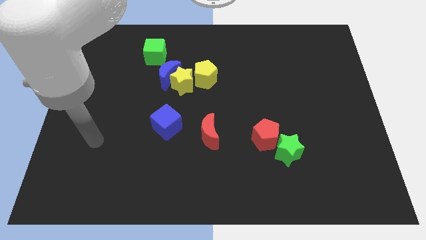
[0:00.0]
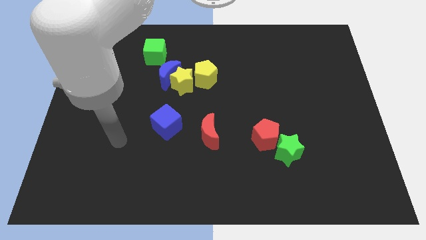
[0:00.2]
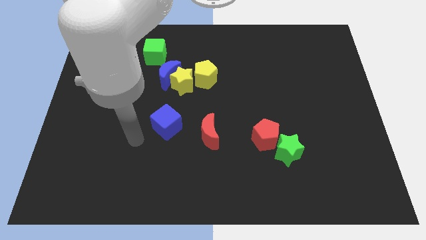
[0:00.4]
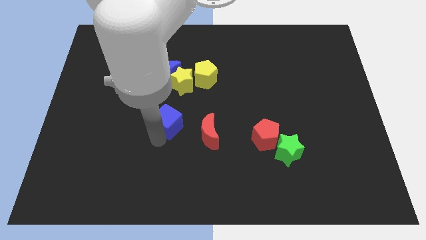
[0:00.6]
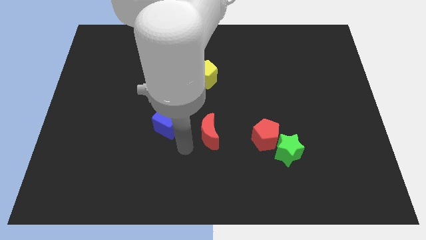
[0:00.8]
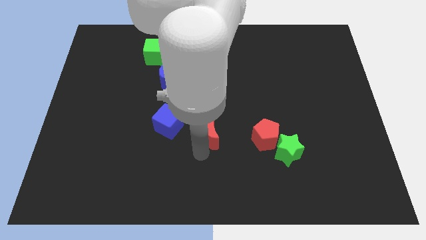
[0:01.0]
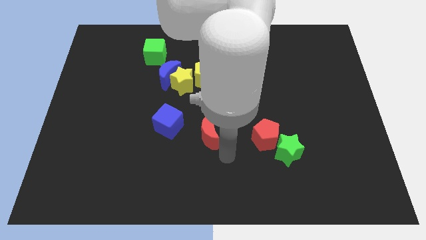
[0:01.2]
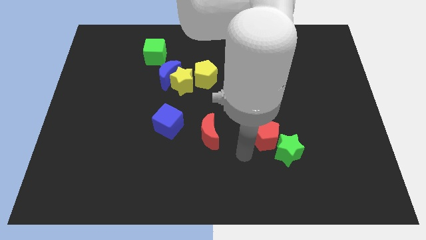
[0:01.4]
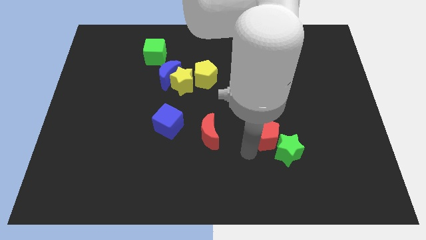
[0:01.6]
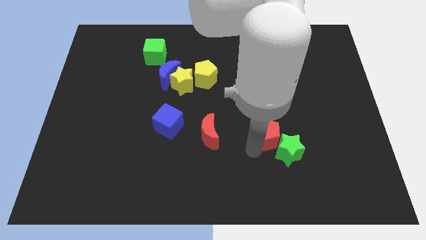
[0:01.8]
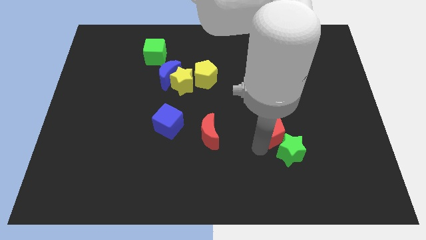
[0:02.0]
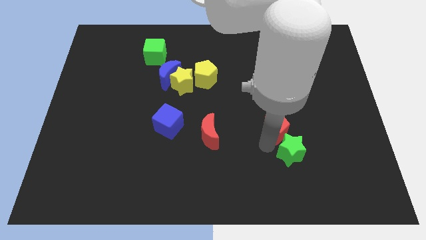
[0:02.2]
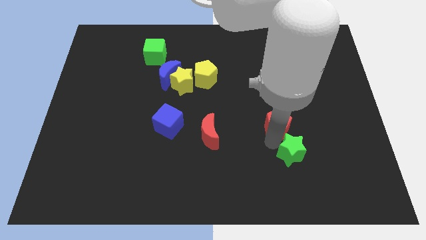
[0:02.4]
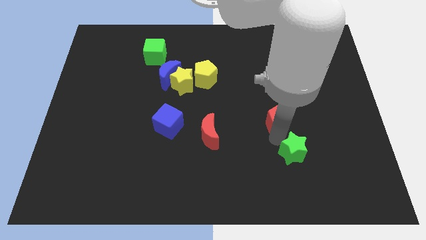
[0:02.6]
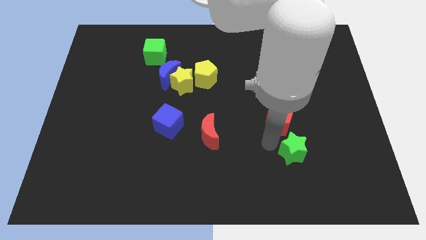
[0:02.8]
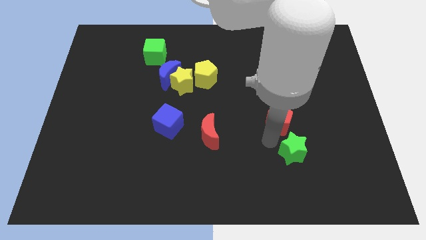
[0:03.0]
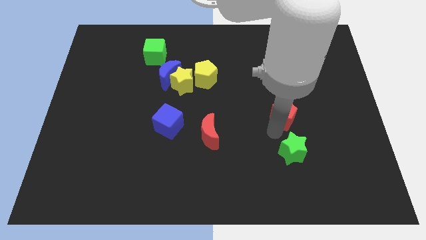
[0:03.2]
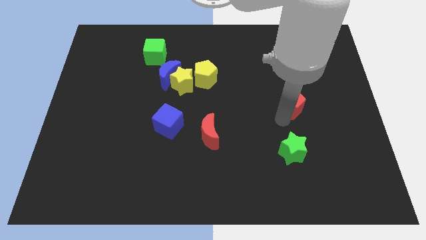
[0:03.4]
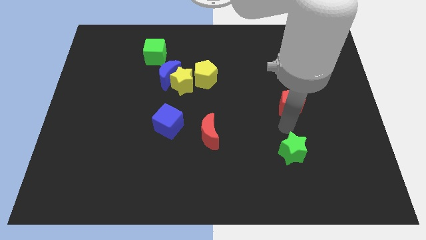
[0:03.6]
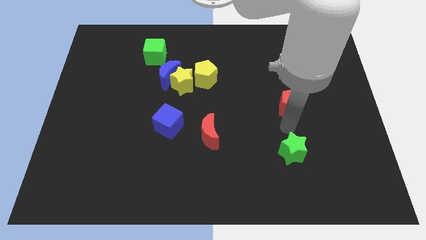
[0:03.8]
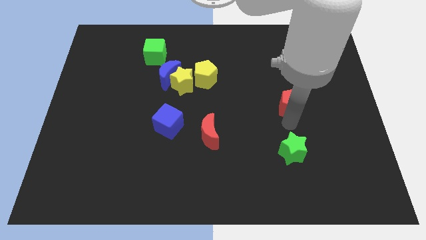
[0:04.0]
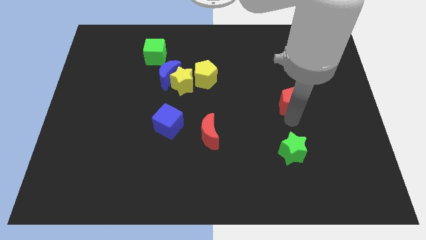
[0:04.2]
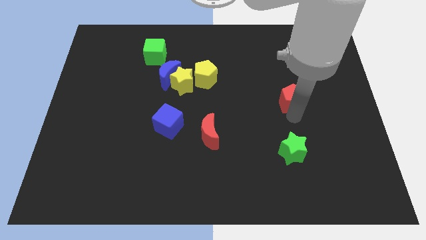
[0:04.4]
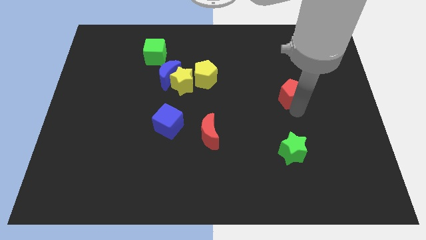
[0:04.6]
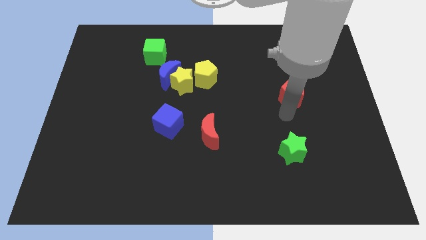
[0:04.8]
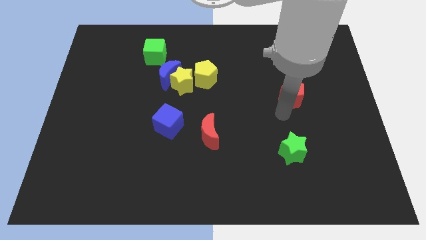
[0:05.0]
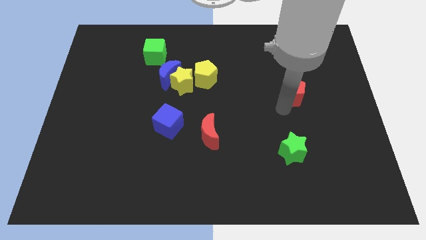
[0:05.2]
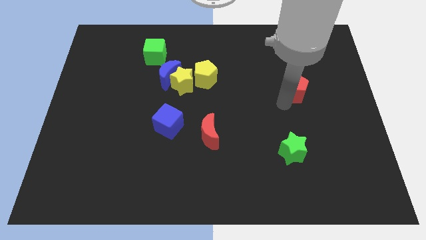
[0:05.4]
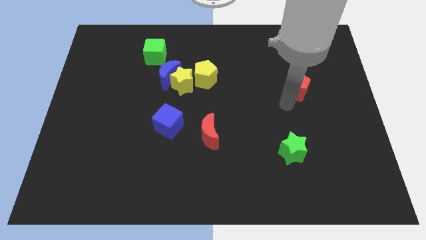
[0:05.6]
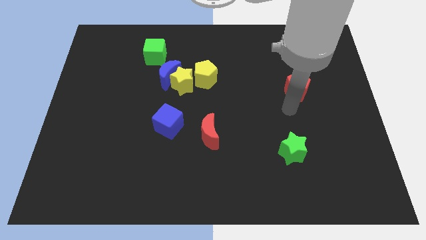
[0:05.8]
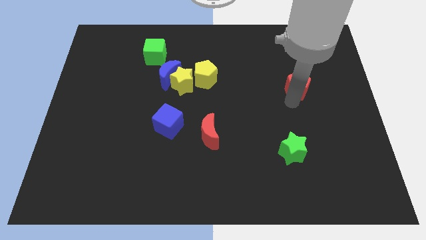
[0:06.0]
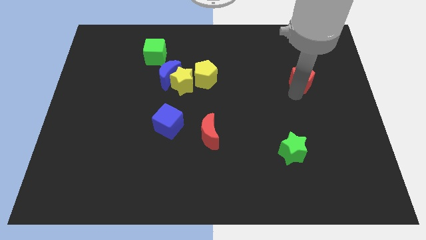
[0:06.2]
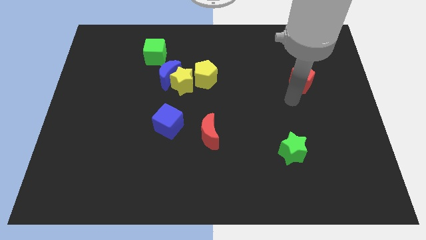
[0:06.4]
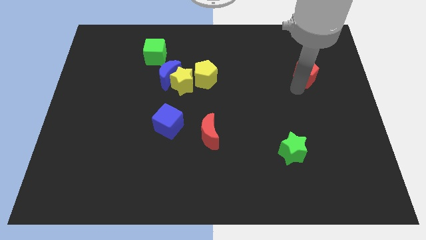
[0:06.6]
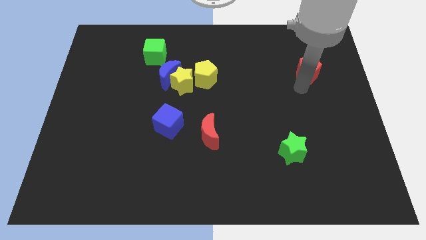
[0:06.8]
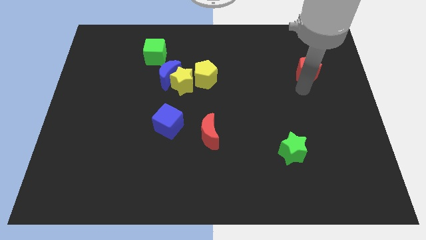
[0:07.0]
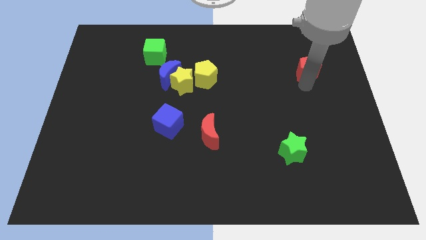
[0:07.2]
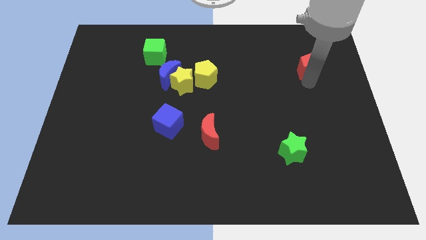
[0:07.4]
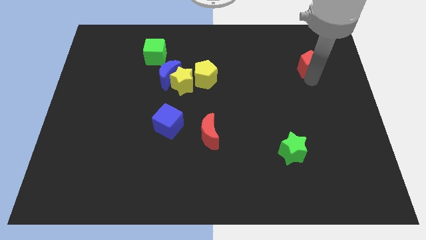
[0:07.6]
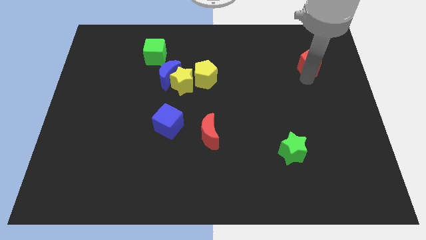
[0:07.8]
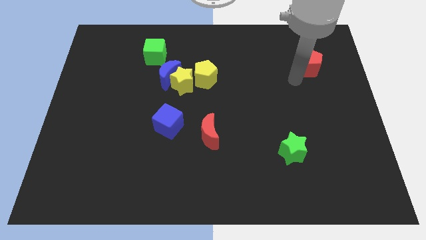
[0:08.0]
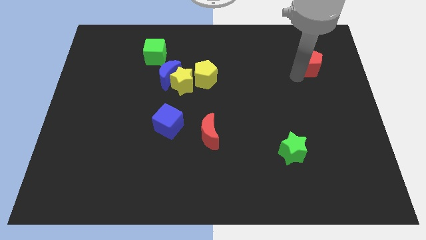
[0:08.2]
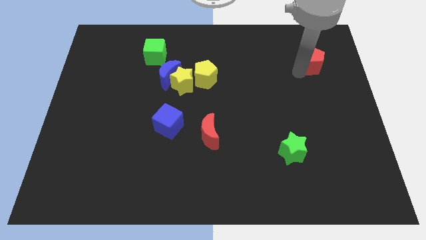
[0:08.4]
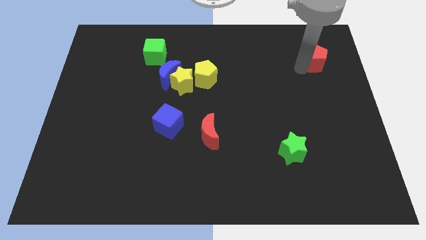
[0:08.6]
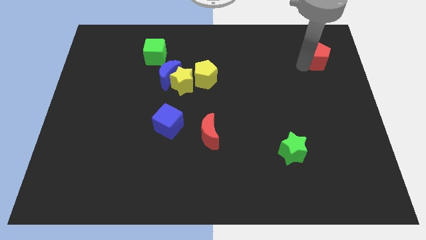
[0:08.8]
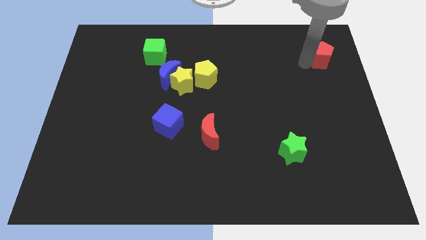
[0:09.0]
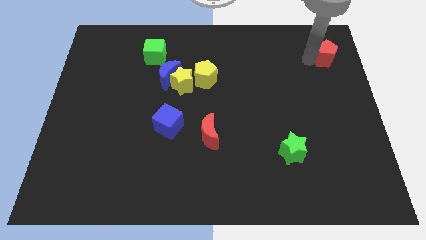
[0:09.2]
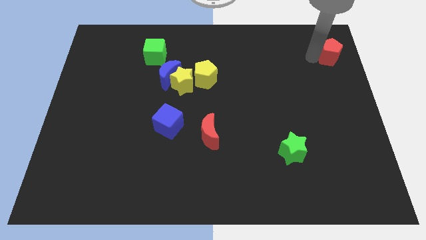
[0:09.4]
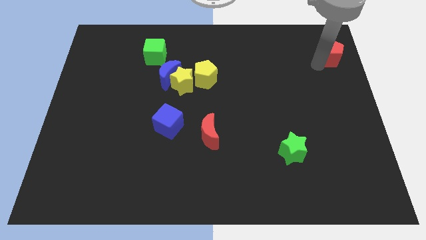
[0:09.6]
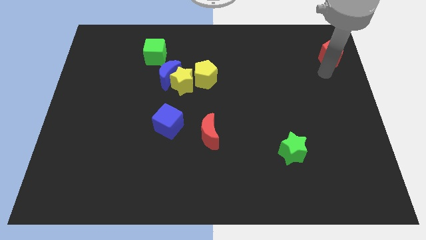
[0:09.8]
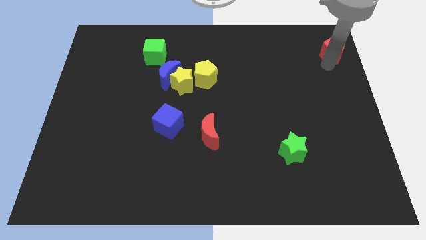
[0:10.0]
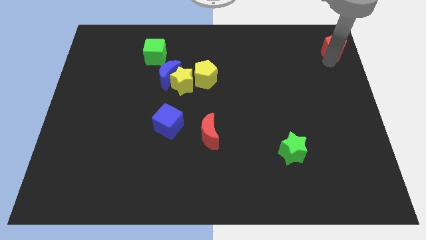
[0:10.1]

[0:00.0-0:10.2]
push the red pentagon to the top right of the board

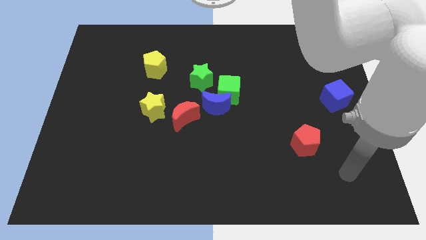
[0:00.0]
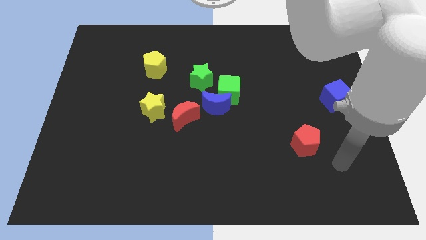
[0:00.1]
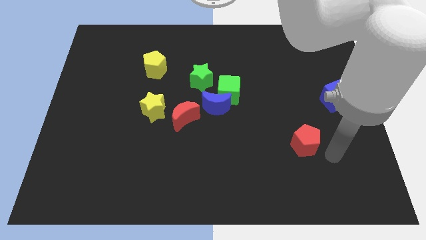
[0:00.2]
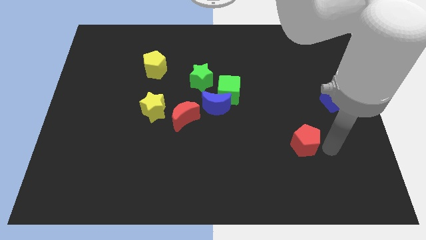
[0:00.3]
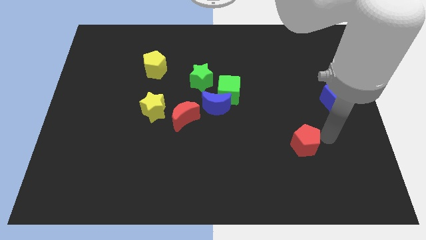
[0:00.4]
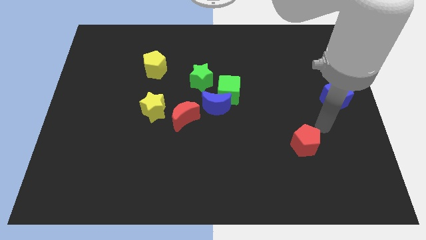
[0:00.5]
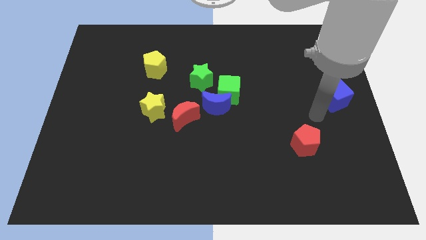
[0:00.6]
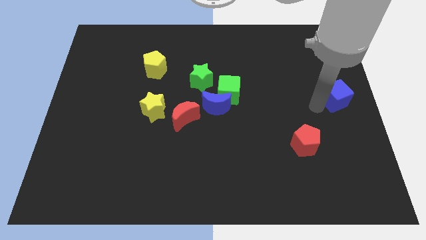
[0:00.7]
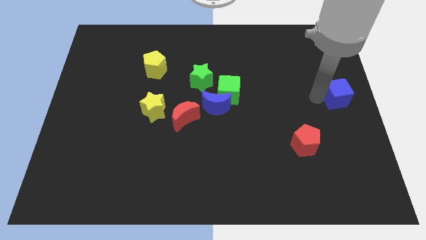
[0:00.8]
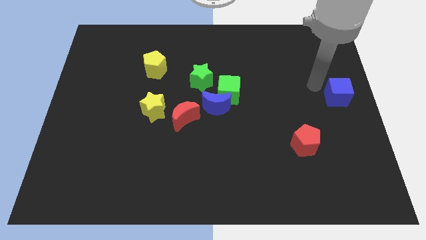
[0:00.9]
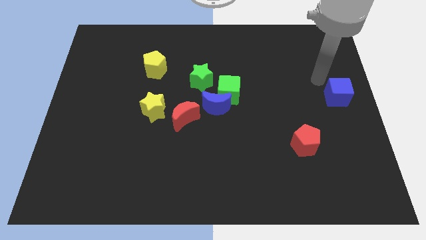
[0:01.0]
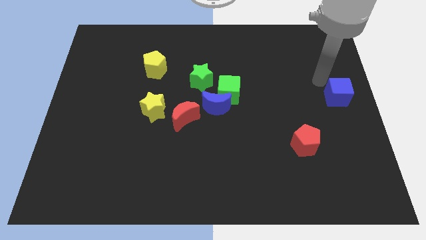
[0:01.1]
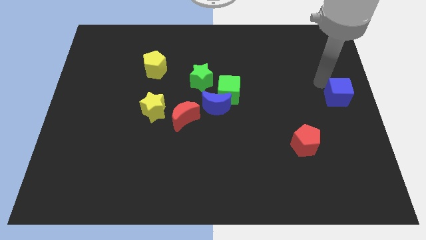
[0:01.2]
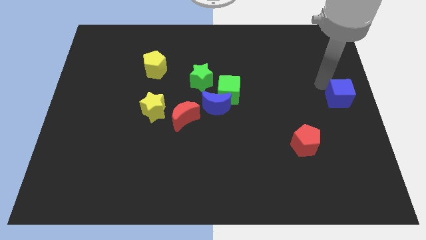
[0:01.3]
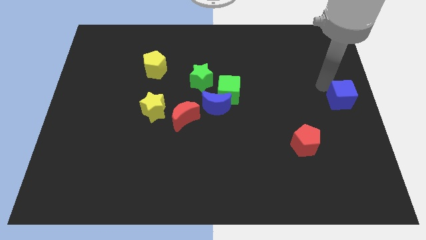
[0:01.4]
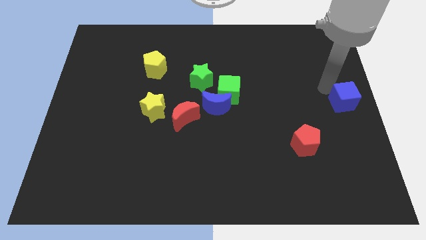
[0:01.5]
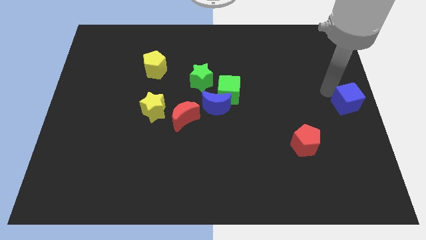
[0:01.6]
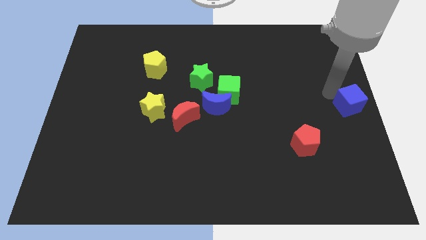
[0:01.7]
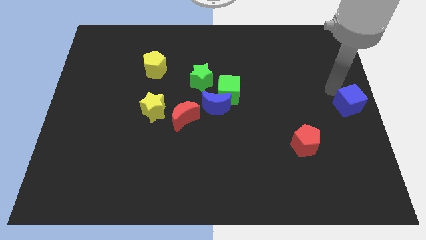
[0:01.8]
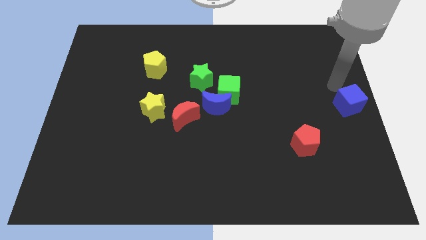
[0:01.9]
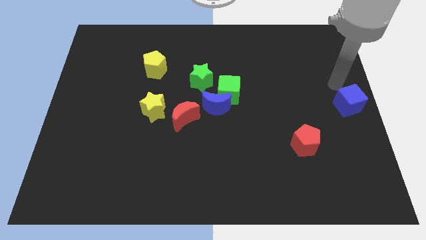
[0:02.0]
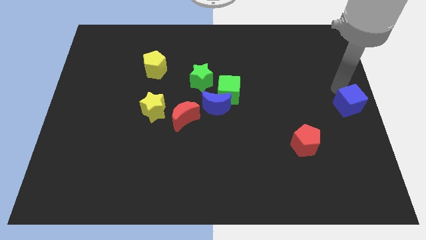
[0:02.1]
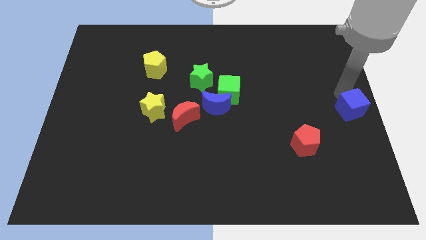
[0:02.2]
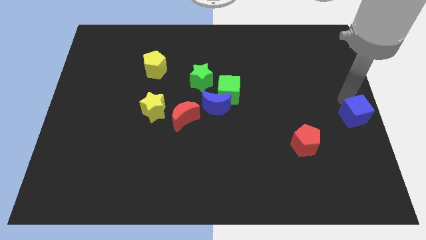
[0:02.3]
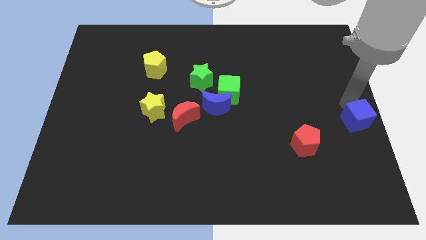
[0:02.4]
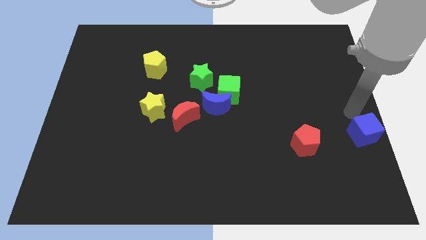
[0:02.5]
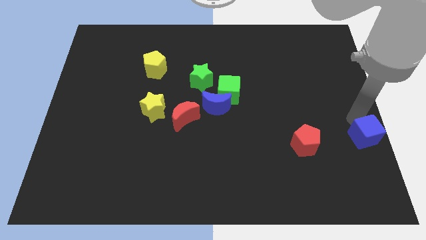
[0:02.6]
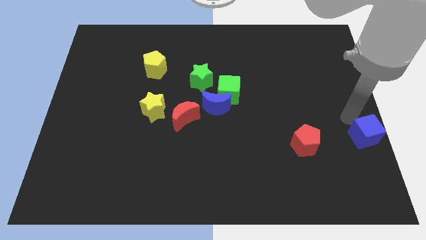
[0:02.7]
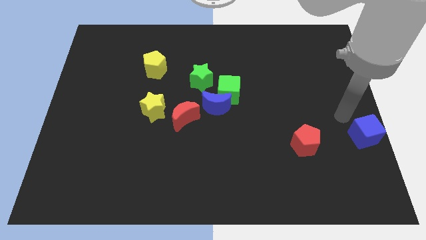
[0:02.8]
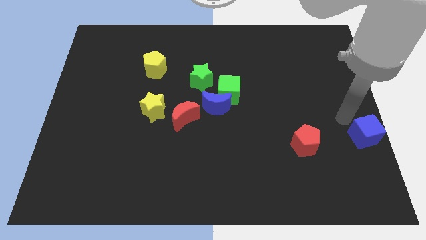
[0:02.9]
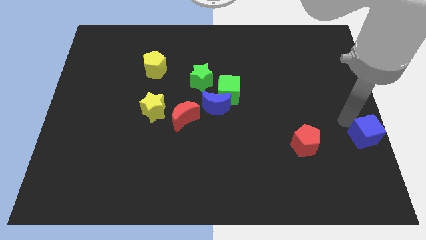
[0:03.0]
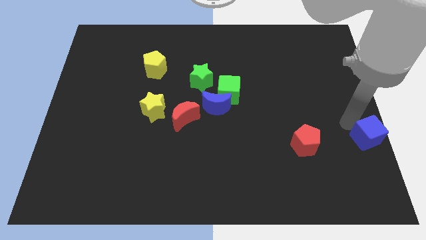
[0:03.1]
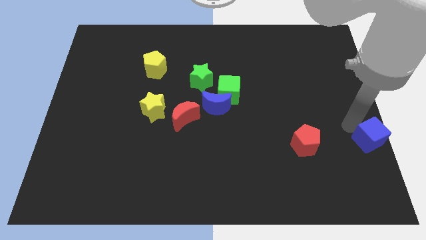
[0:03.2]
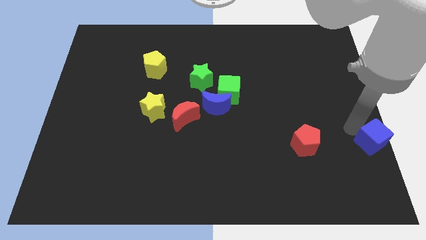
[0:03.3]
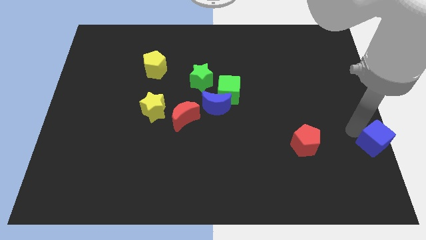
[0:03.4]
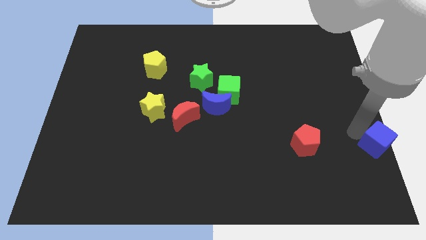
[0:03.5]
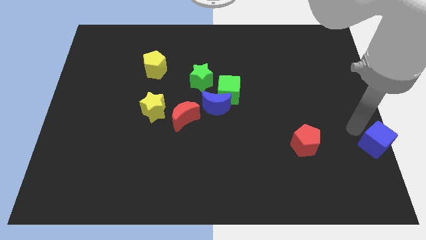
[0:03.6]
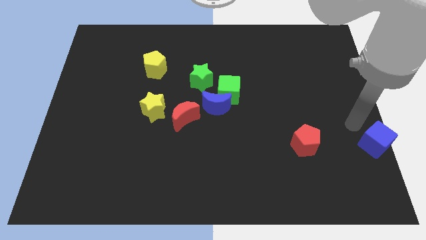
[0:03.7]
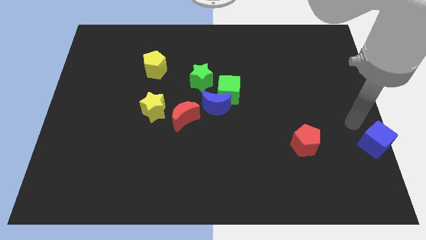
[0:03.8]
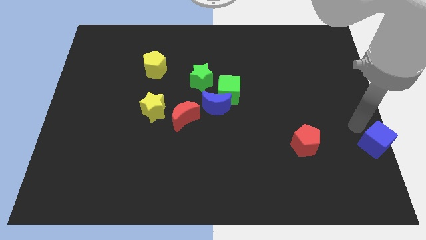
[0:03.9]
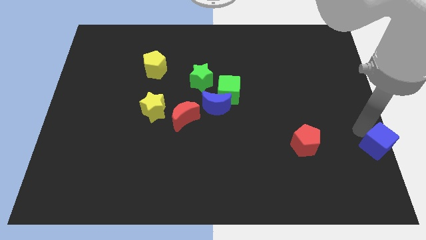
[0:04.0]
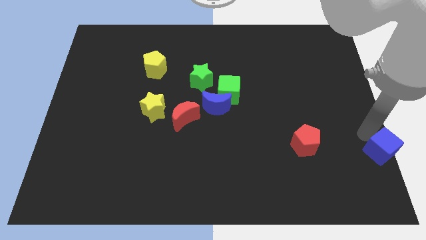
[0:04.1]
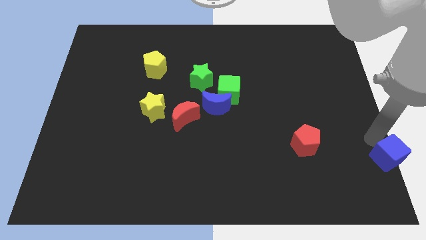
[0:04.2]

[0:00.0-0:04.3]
slide the blue cube to the lower right corner
